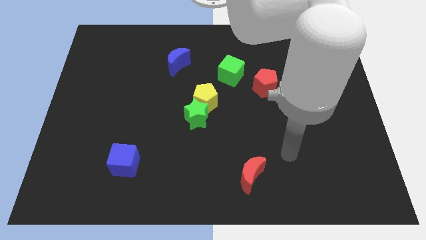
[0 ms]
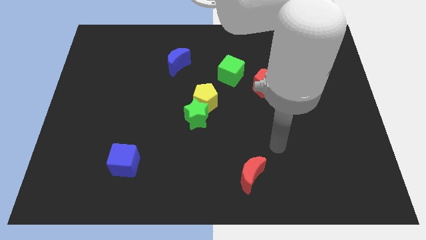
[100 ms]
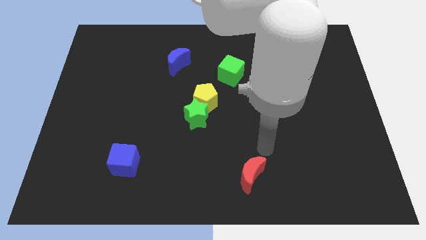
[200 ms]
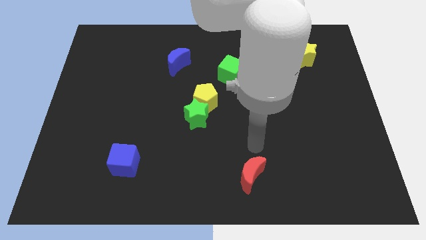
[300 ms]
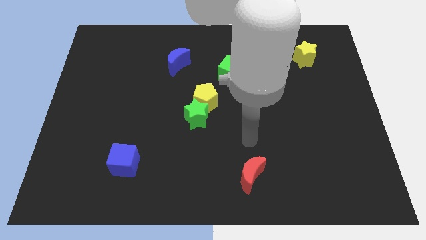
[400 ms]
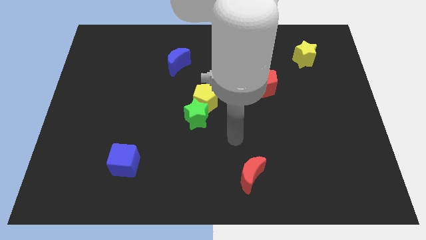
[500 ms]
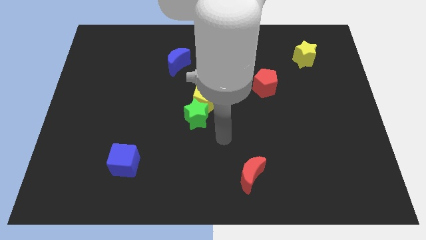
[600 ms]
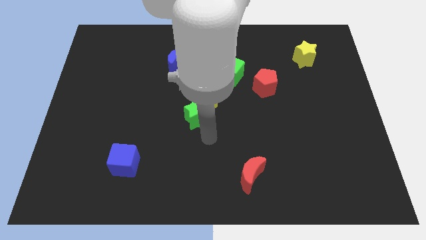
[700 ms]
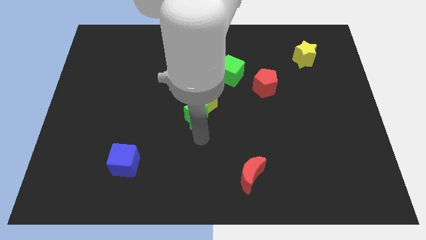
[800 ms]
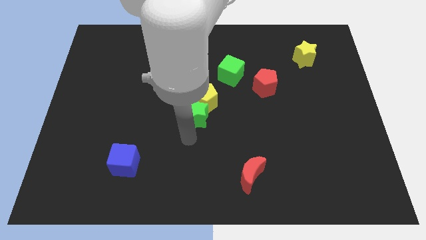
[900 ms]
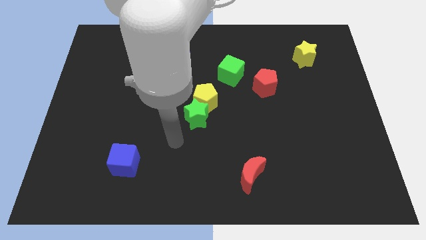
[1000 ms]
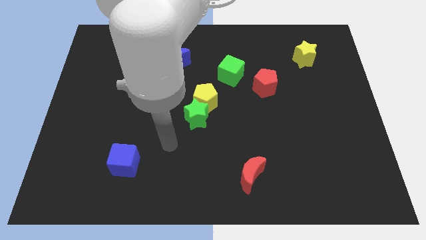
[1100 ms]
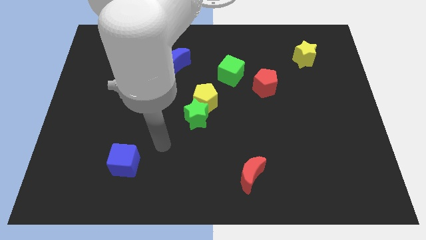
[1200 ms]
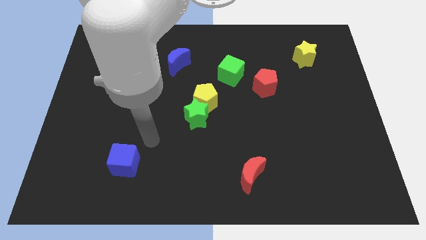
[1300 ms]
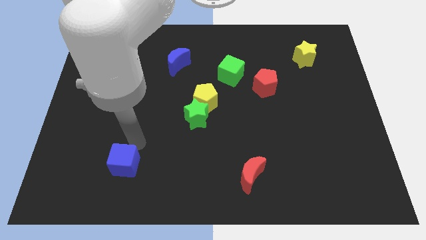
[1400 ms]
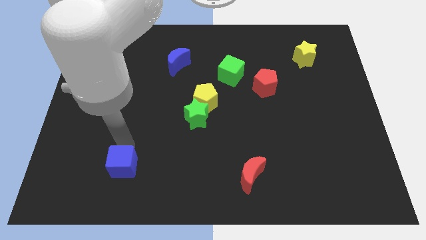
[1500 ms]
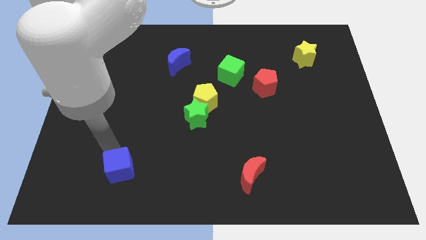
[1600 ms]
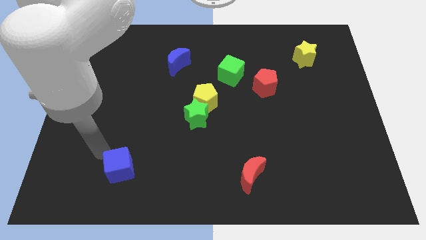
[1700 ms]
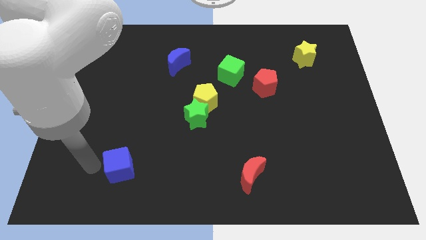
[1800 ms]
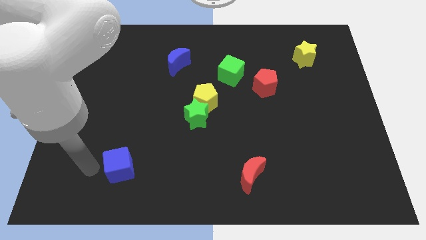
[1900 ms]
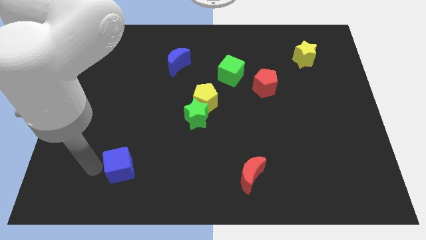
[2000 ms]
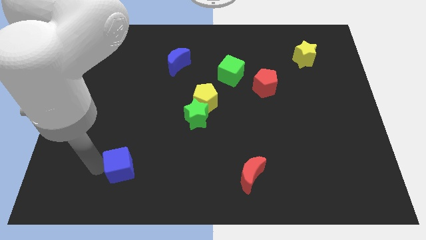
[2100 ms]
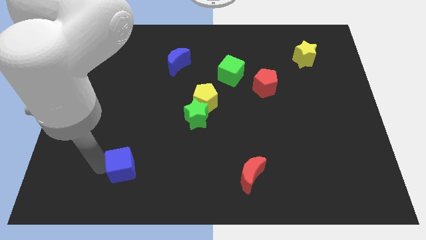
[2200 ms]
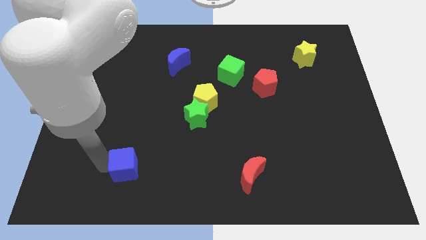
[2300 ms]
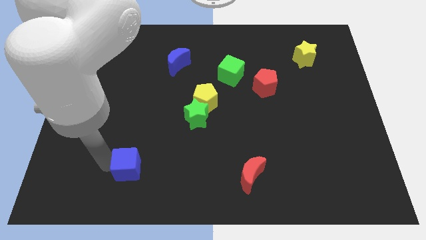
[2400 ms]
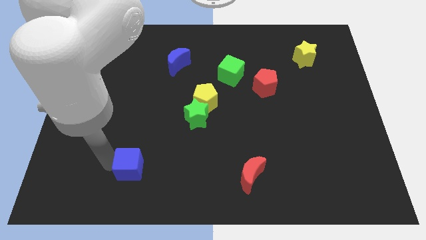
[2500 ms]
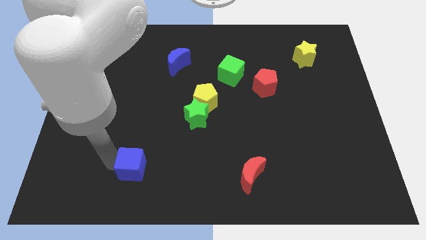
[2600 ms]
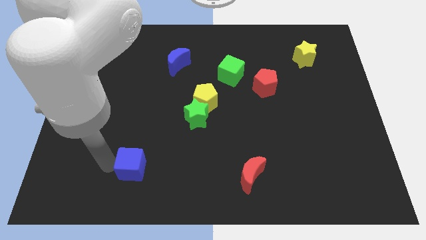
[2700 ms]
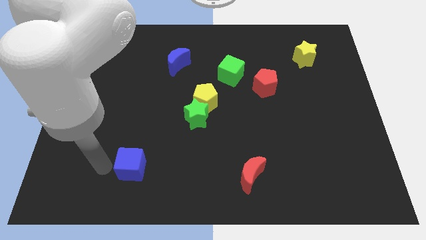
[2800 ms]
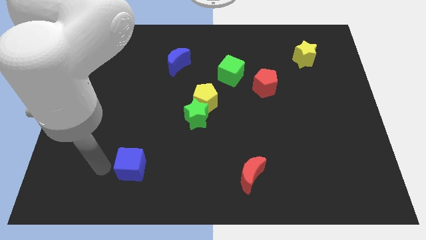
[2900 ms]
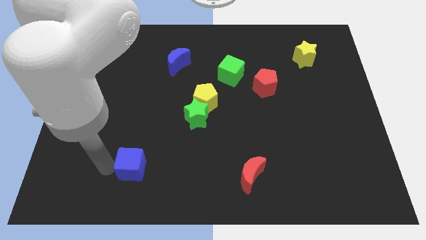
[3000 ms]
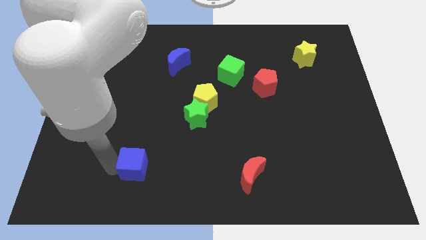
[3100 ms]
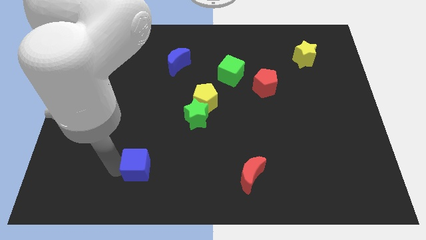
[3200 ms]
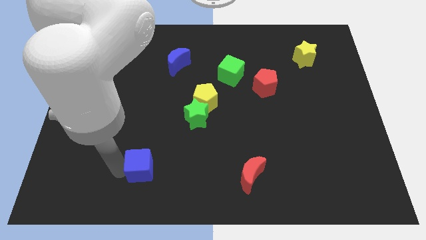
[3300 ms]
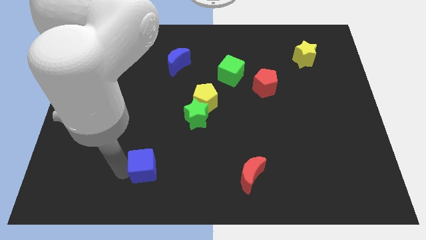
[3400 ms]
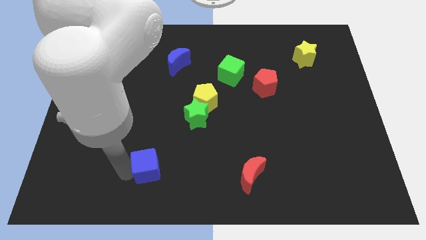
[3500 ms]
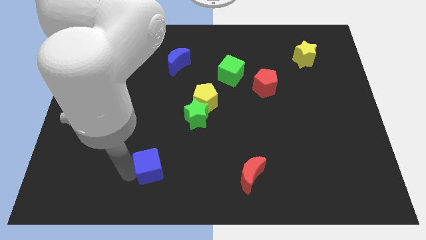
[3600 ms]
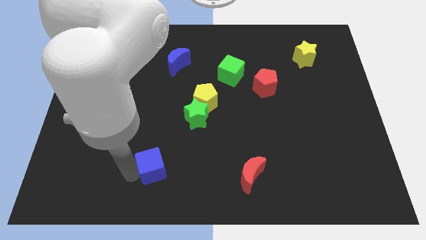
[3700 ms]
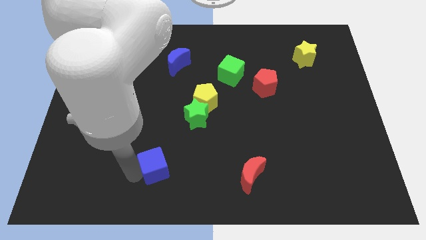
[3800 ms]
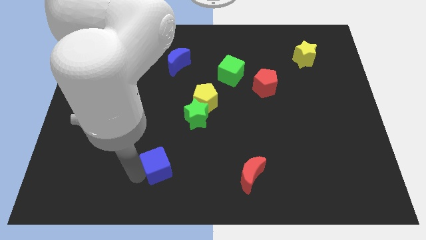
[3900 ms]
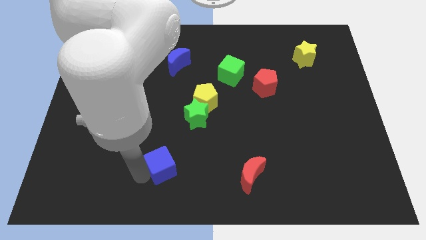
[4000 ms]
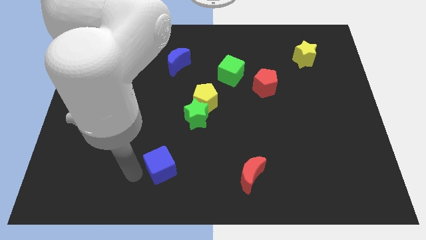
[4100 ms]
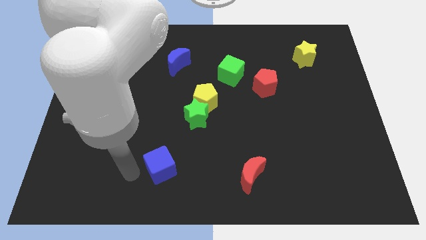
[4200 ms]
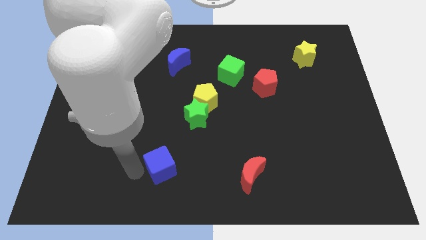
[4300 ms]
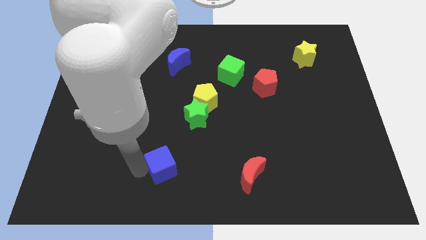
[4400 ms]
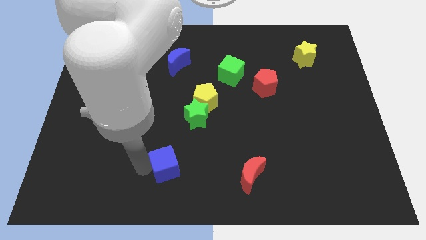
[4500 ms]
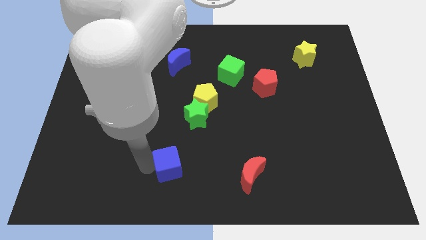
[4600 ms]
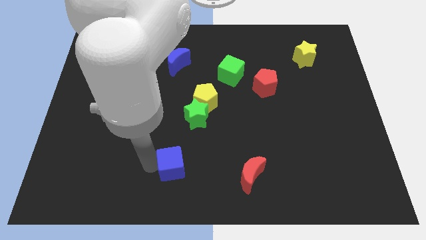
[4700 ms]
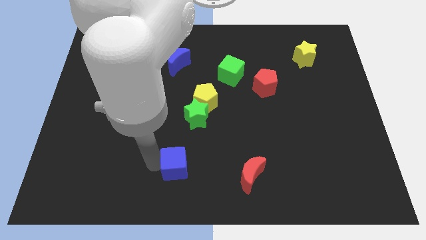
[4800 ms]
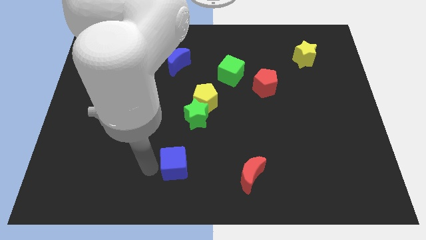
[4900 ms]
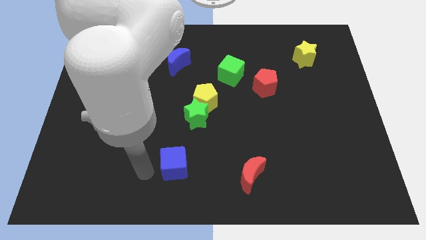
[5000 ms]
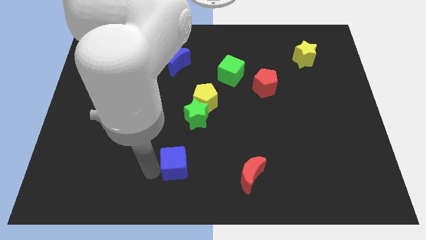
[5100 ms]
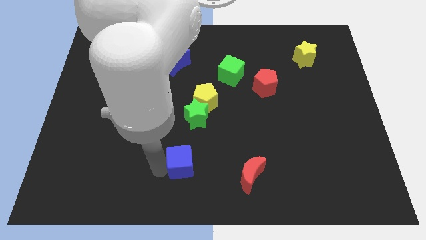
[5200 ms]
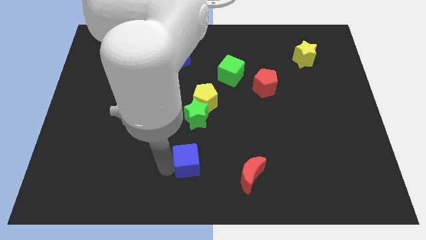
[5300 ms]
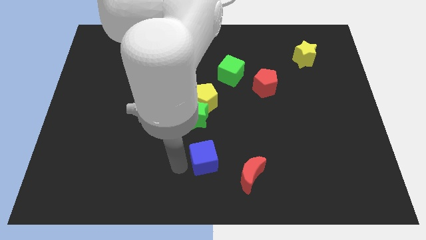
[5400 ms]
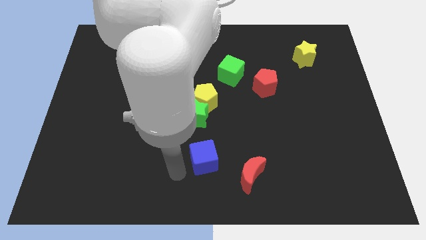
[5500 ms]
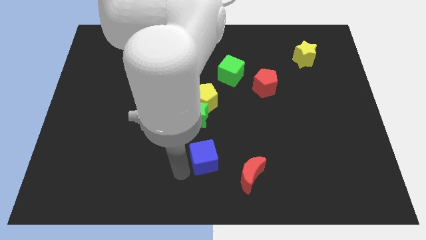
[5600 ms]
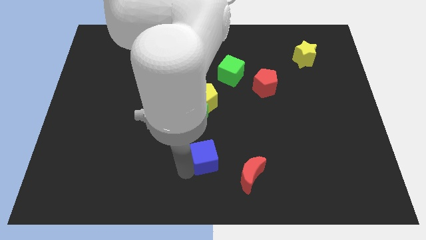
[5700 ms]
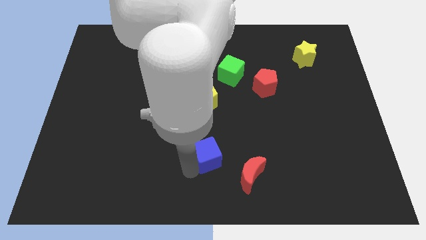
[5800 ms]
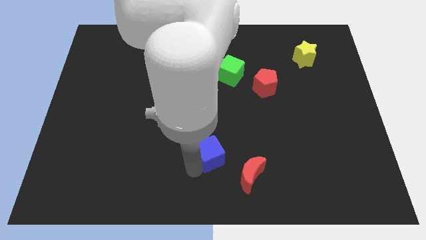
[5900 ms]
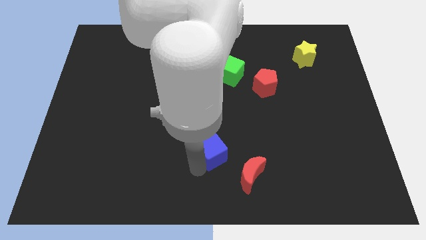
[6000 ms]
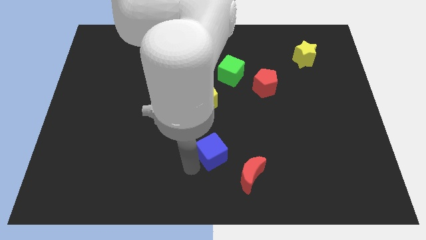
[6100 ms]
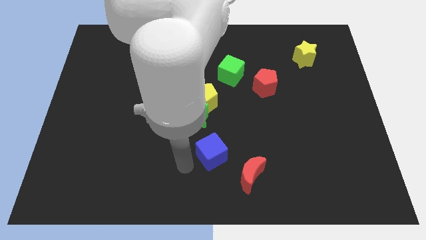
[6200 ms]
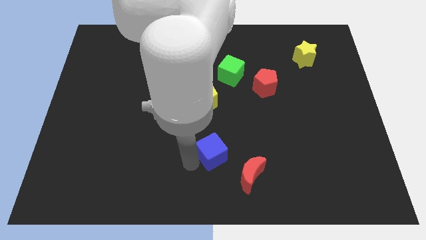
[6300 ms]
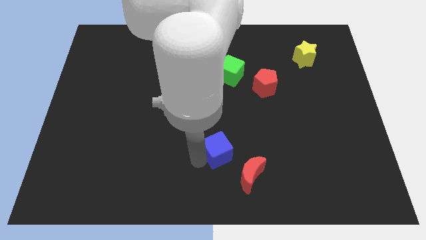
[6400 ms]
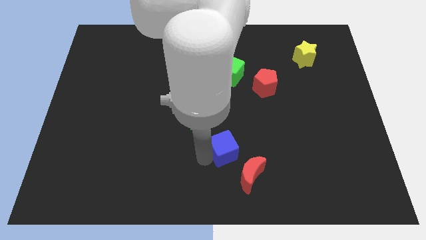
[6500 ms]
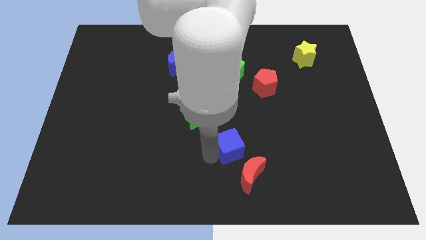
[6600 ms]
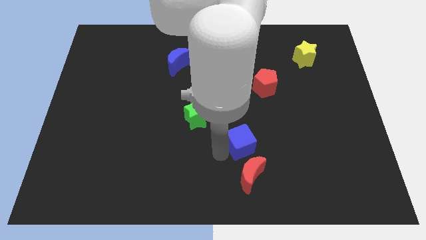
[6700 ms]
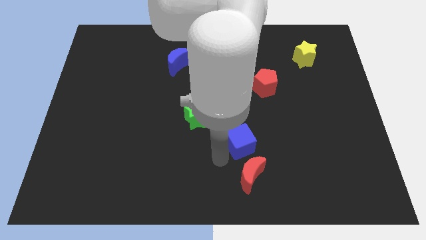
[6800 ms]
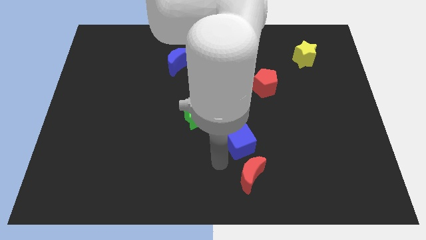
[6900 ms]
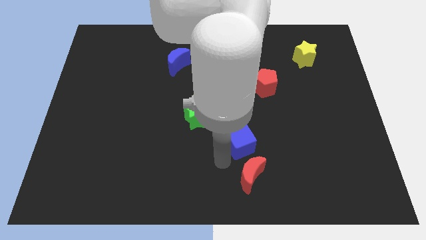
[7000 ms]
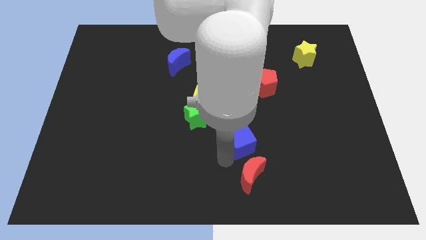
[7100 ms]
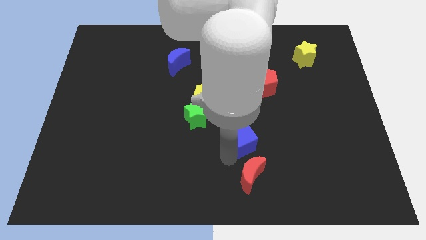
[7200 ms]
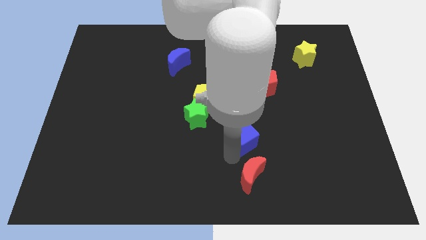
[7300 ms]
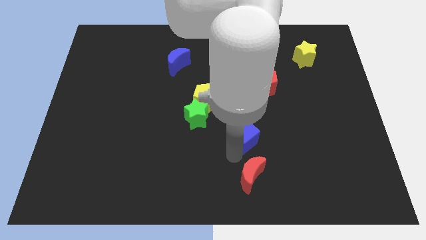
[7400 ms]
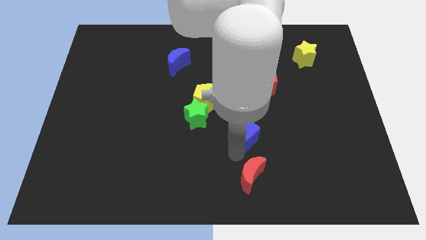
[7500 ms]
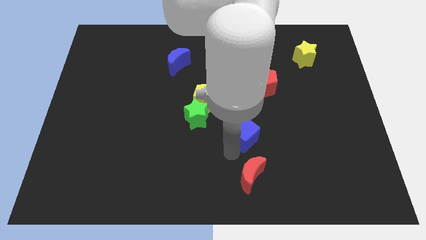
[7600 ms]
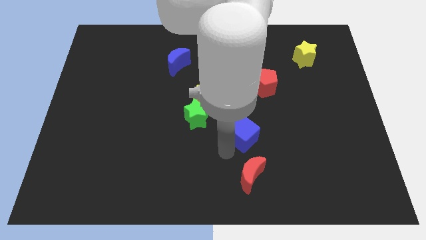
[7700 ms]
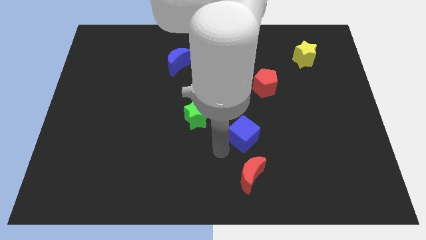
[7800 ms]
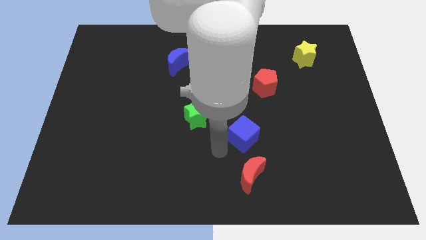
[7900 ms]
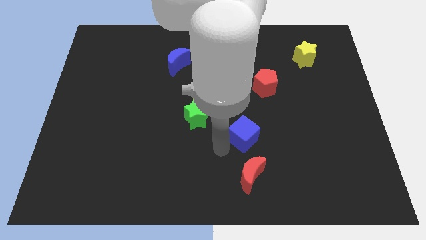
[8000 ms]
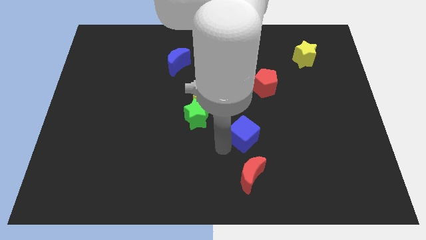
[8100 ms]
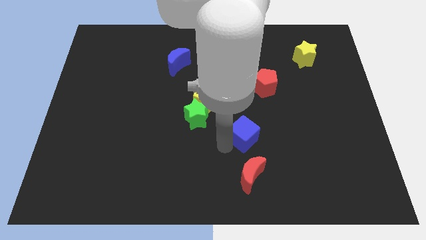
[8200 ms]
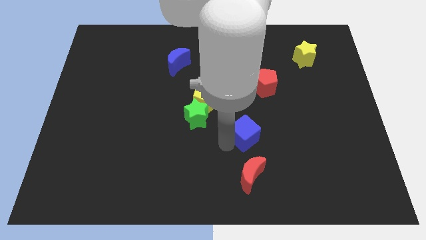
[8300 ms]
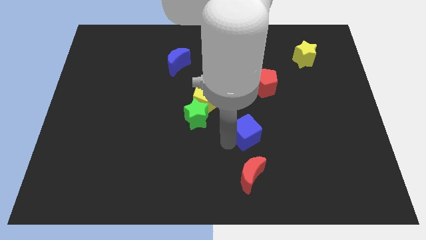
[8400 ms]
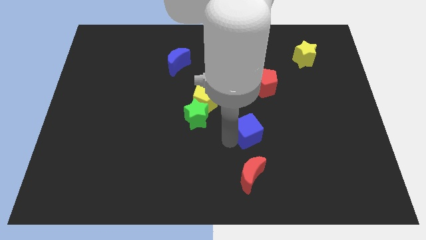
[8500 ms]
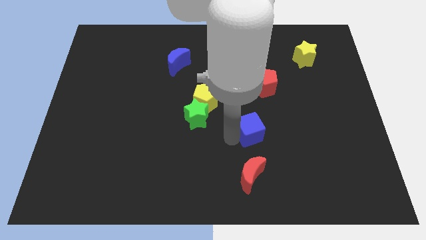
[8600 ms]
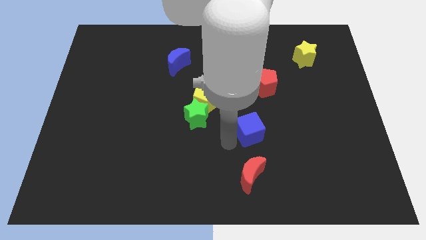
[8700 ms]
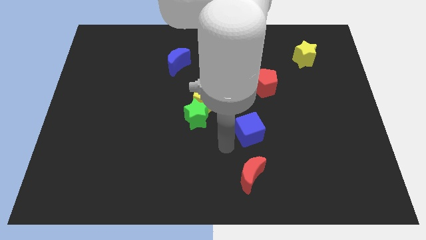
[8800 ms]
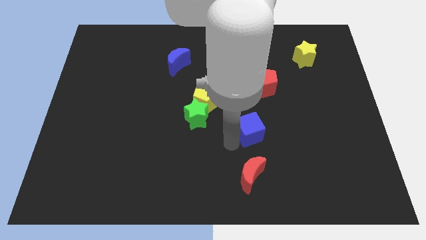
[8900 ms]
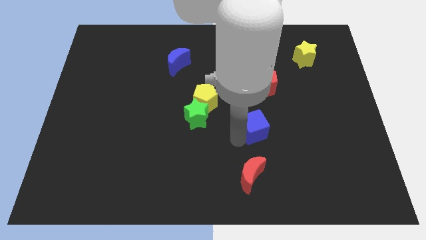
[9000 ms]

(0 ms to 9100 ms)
push the blue cube below the red pentagon
